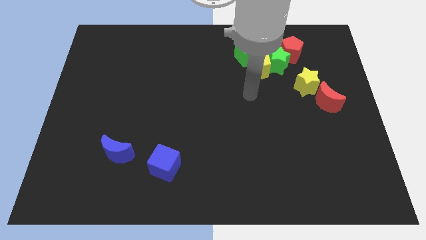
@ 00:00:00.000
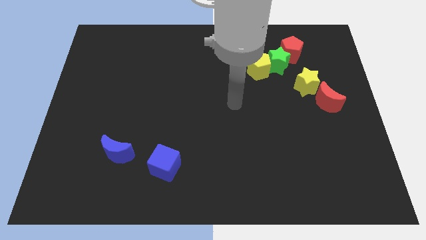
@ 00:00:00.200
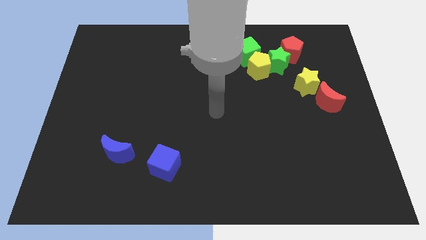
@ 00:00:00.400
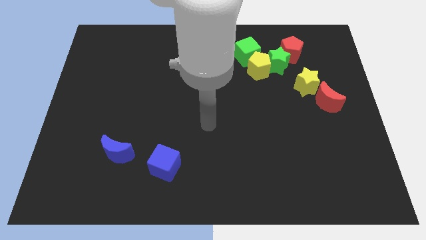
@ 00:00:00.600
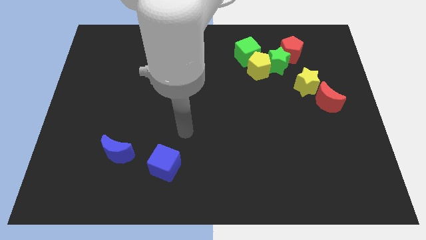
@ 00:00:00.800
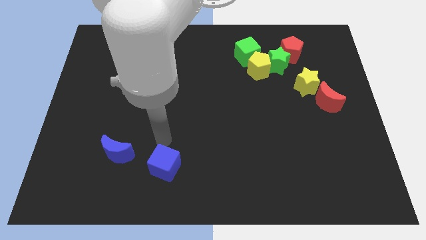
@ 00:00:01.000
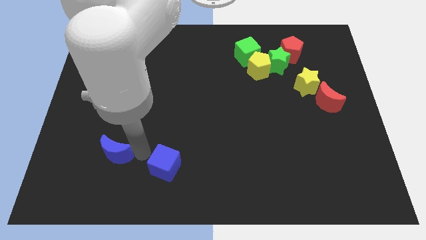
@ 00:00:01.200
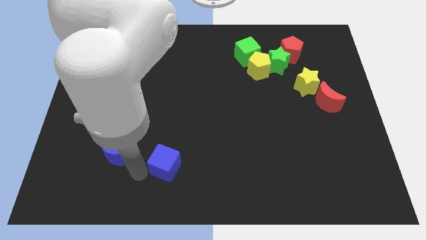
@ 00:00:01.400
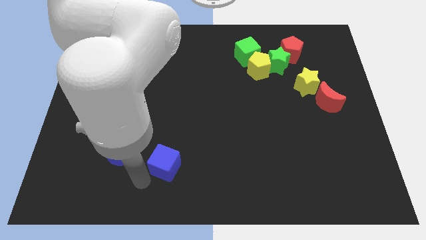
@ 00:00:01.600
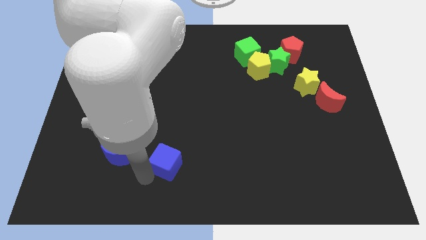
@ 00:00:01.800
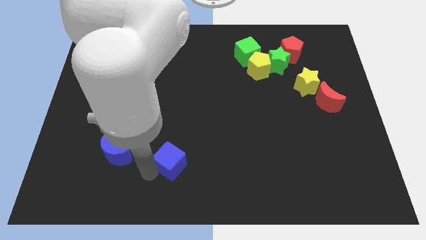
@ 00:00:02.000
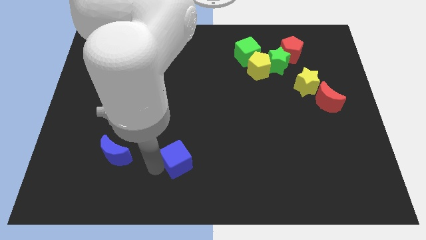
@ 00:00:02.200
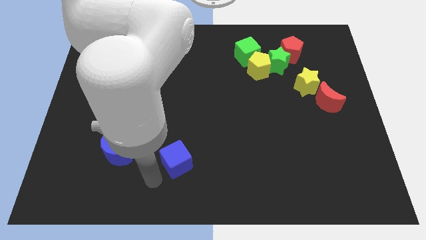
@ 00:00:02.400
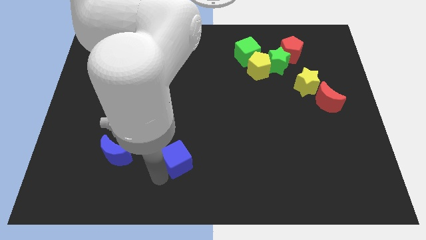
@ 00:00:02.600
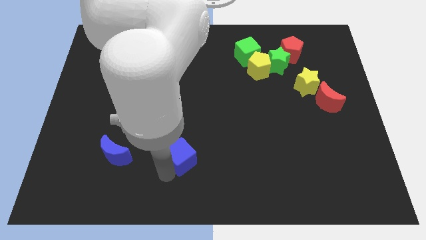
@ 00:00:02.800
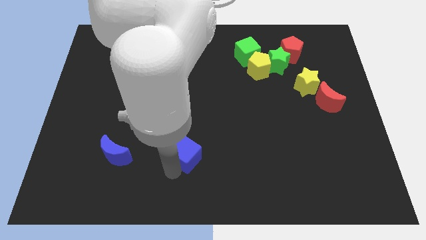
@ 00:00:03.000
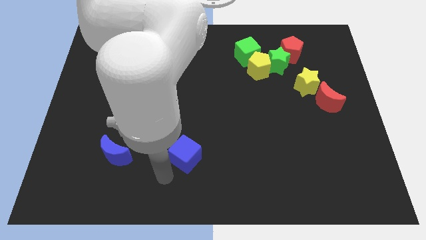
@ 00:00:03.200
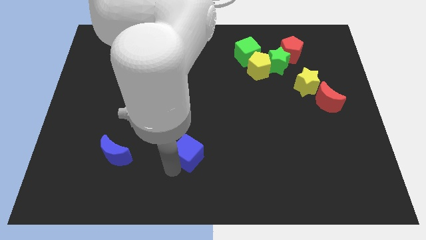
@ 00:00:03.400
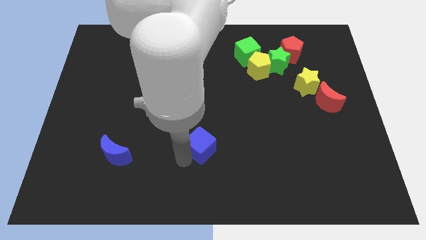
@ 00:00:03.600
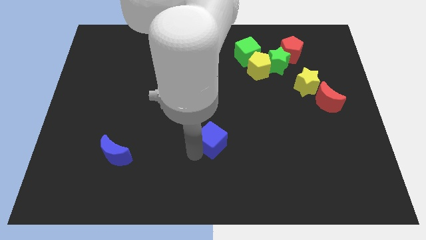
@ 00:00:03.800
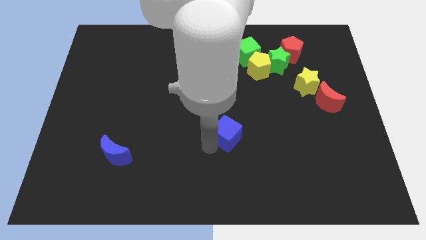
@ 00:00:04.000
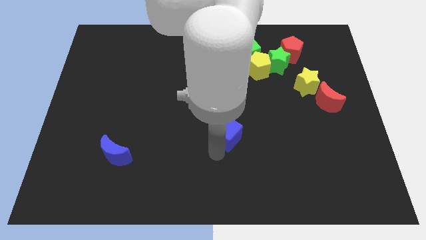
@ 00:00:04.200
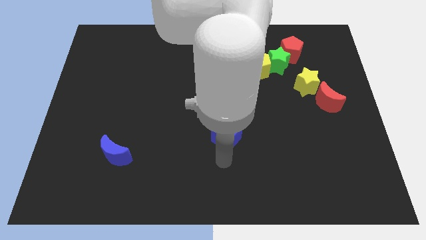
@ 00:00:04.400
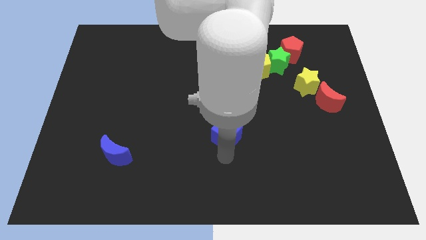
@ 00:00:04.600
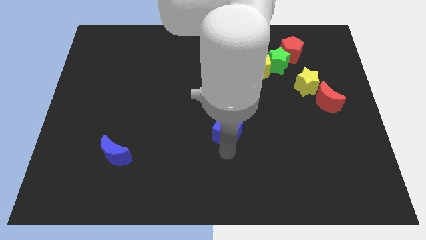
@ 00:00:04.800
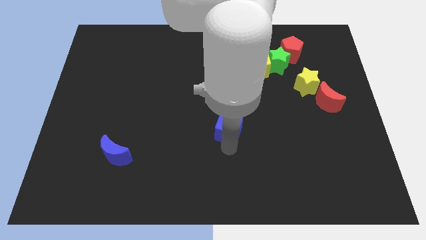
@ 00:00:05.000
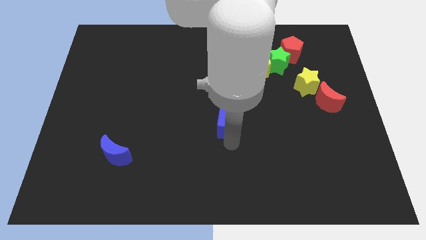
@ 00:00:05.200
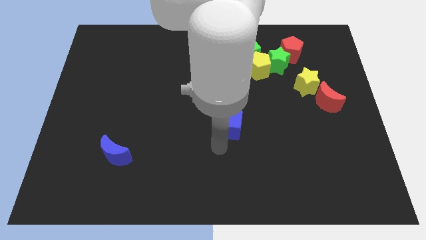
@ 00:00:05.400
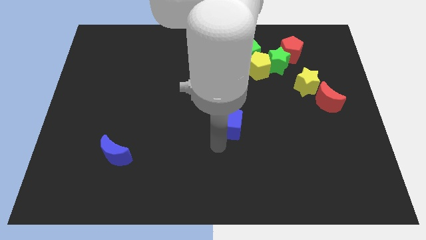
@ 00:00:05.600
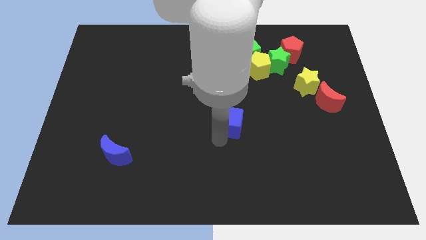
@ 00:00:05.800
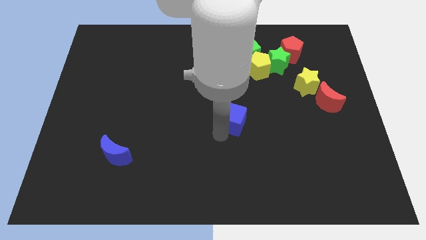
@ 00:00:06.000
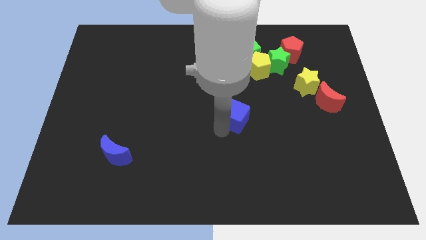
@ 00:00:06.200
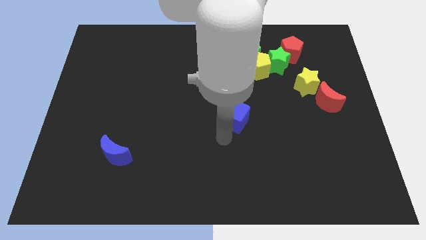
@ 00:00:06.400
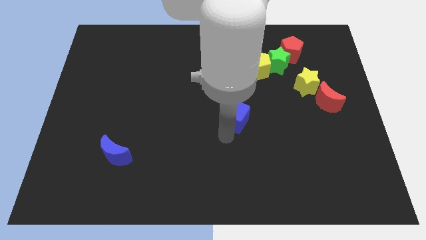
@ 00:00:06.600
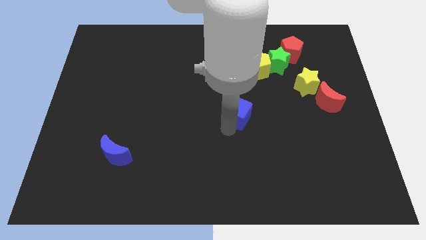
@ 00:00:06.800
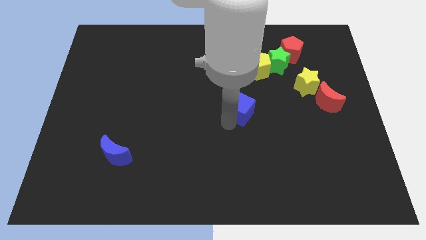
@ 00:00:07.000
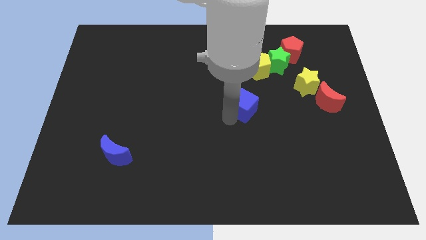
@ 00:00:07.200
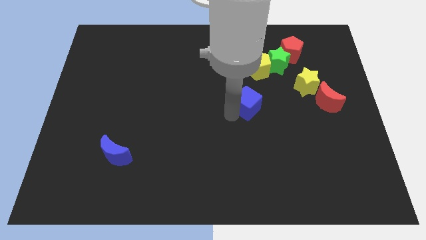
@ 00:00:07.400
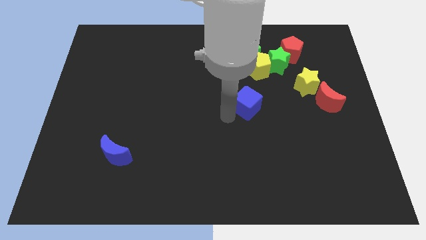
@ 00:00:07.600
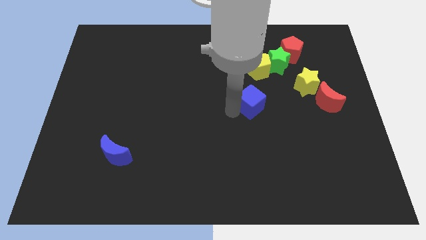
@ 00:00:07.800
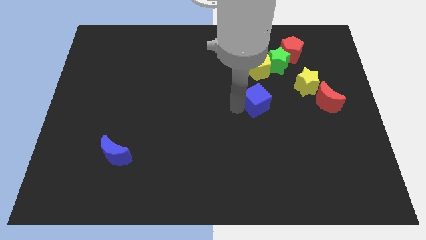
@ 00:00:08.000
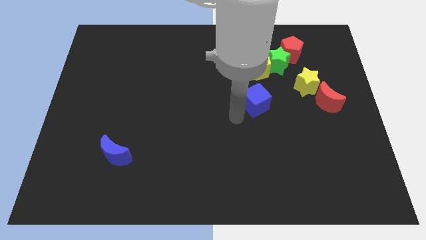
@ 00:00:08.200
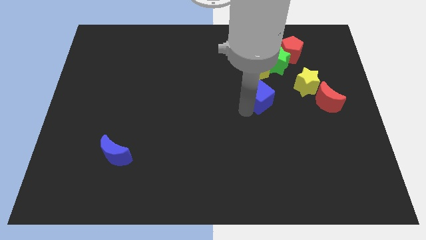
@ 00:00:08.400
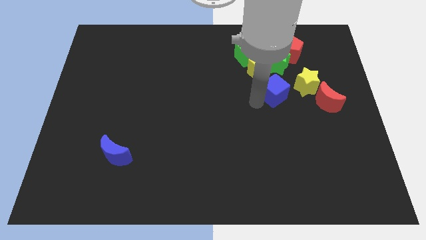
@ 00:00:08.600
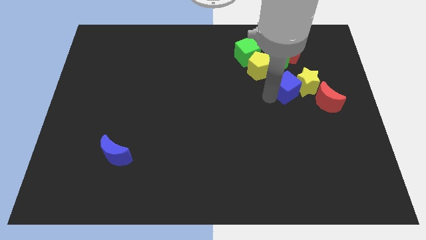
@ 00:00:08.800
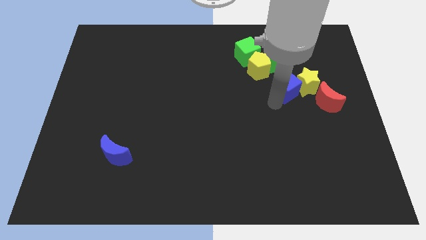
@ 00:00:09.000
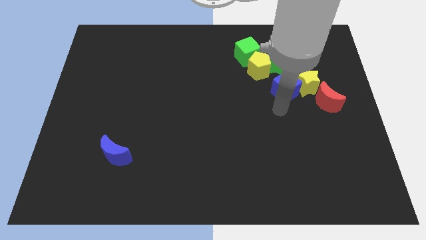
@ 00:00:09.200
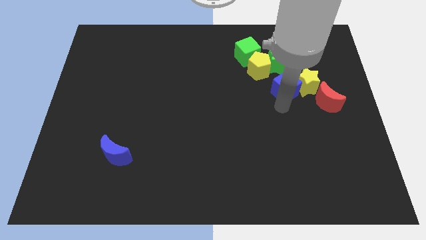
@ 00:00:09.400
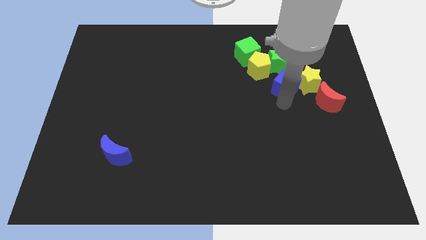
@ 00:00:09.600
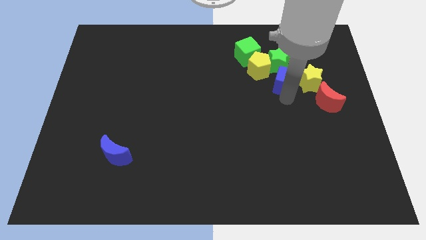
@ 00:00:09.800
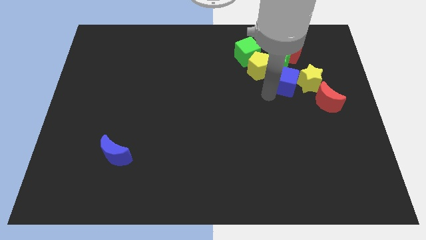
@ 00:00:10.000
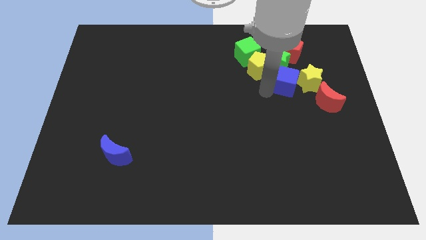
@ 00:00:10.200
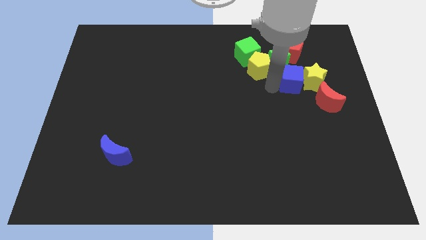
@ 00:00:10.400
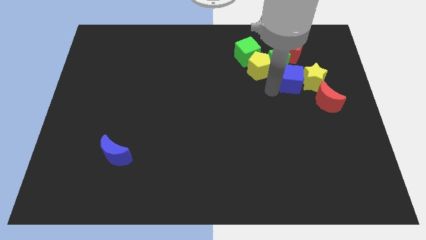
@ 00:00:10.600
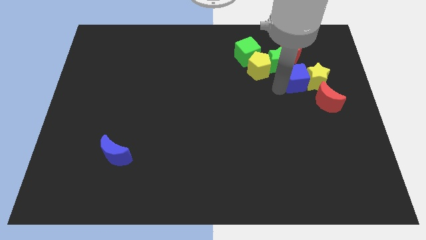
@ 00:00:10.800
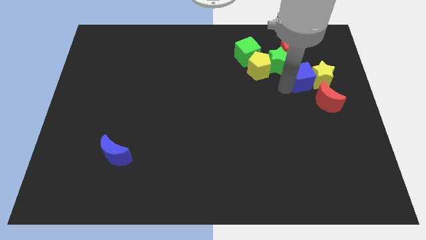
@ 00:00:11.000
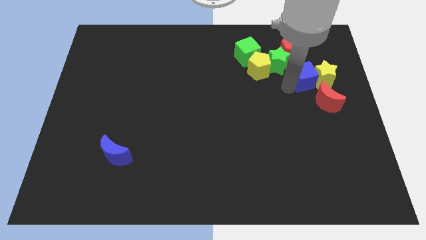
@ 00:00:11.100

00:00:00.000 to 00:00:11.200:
push the blue cube to the top of the red moon

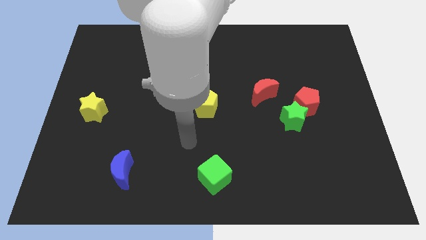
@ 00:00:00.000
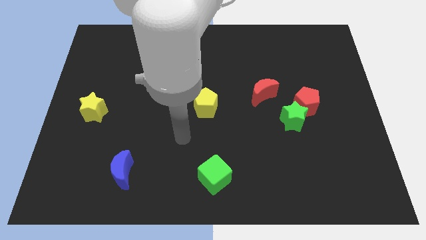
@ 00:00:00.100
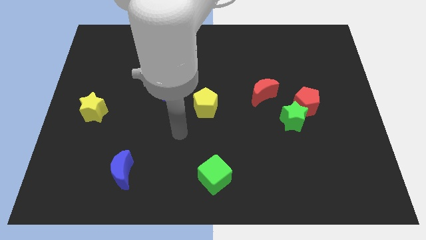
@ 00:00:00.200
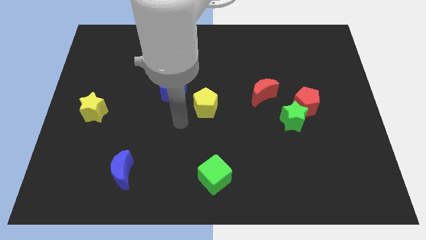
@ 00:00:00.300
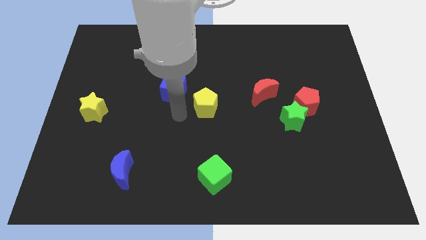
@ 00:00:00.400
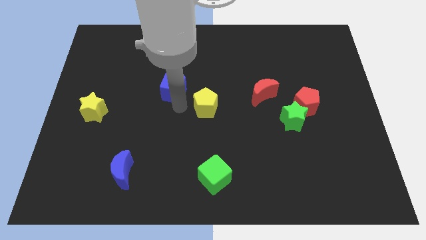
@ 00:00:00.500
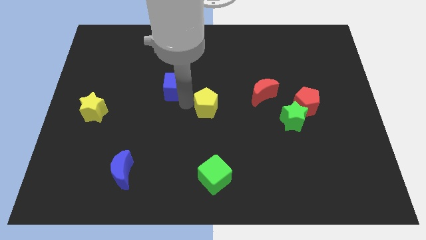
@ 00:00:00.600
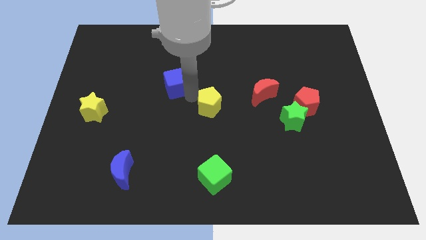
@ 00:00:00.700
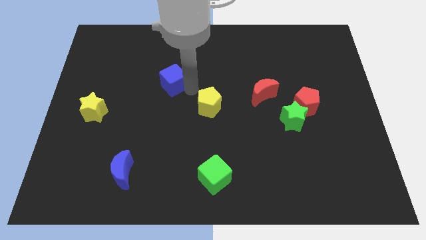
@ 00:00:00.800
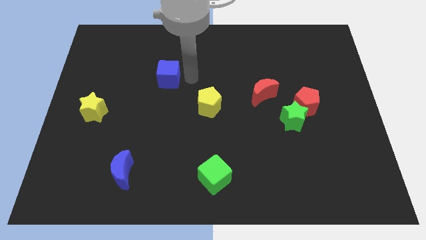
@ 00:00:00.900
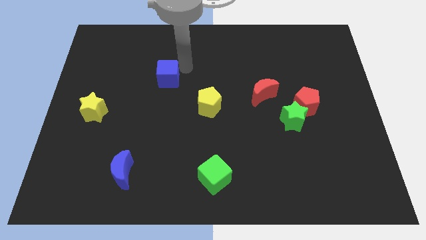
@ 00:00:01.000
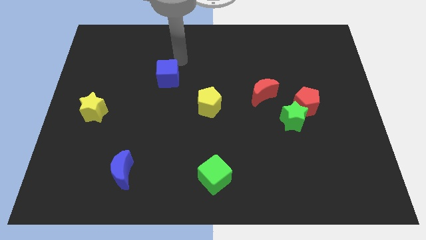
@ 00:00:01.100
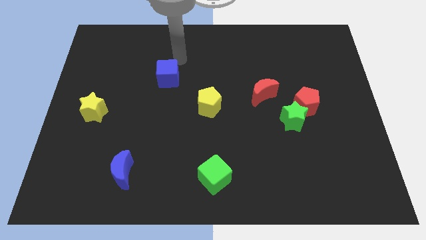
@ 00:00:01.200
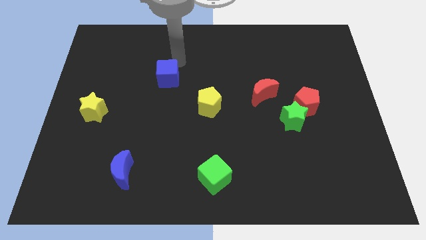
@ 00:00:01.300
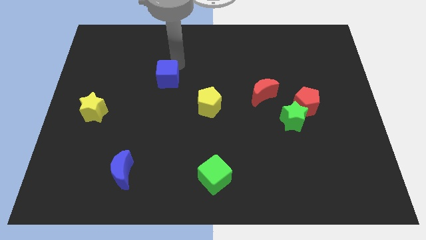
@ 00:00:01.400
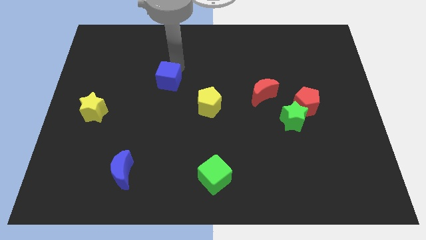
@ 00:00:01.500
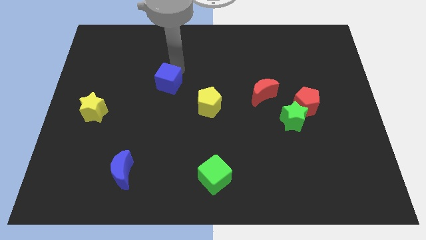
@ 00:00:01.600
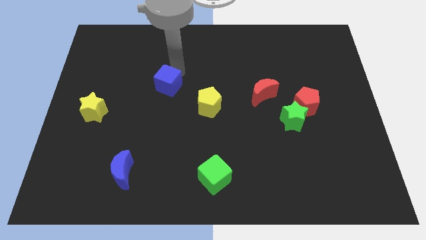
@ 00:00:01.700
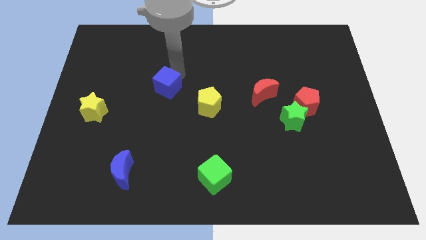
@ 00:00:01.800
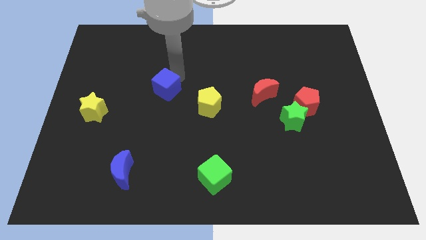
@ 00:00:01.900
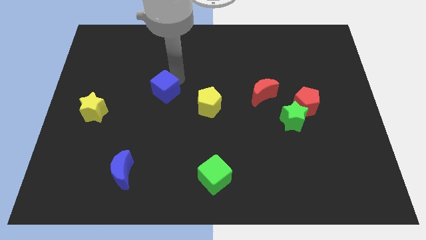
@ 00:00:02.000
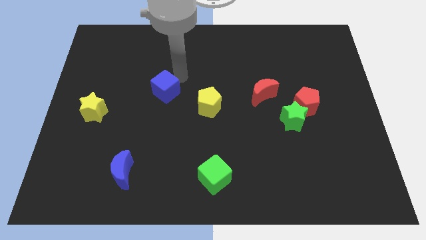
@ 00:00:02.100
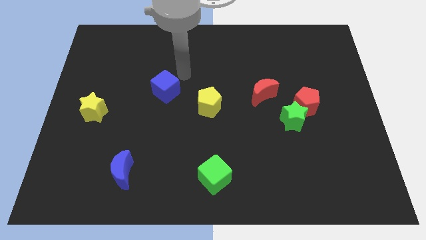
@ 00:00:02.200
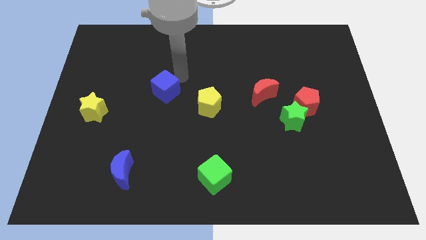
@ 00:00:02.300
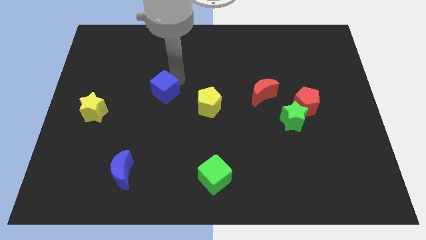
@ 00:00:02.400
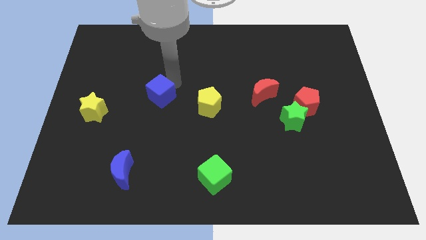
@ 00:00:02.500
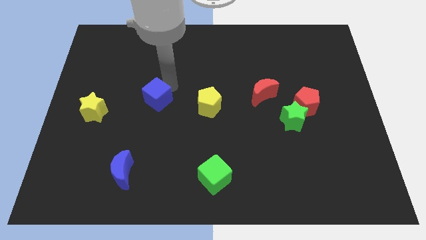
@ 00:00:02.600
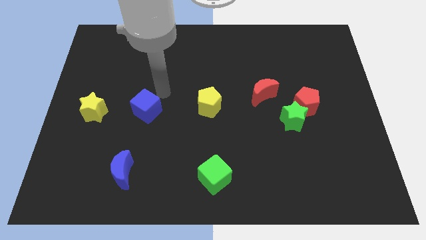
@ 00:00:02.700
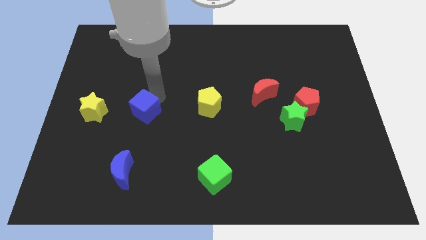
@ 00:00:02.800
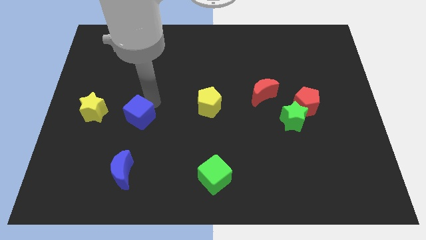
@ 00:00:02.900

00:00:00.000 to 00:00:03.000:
slide the blue cube to the top of the blue moon
